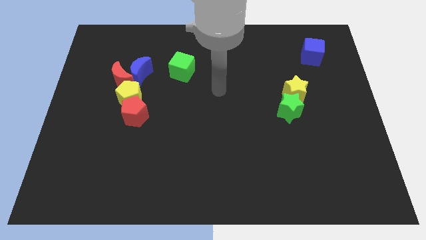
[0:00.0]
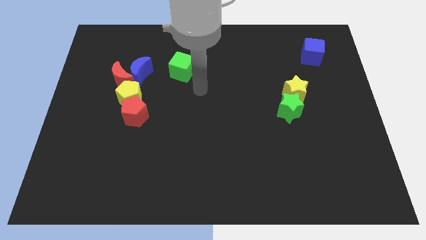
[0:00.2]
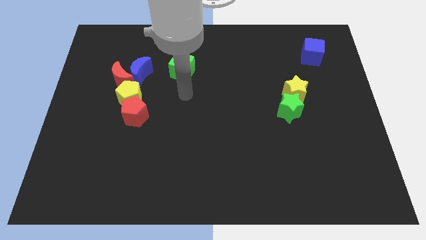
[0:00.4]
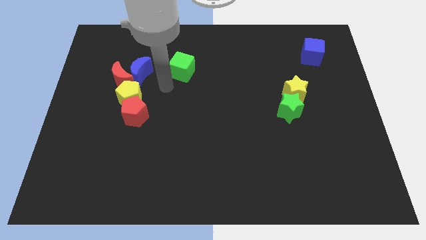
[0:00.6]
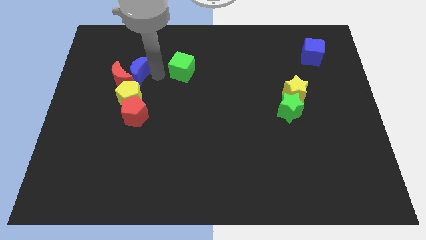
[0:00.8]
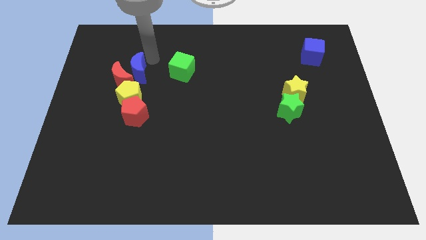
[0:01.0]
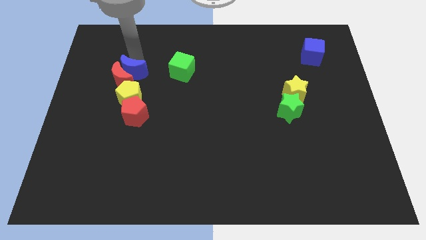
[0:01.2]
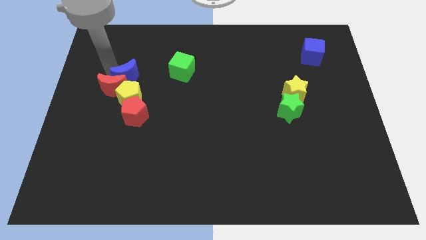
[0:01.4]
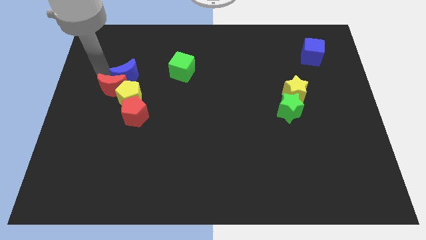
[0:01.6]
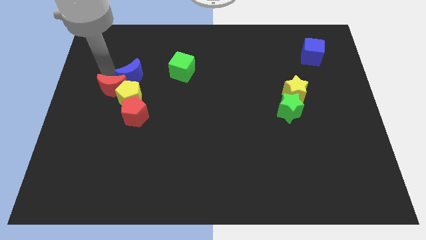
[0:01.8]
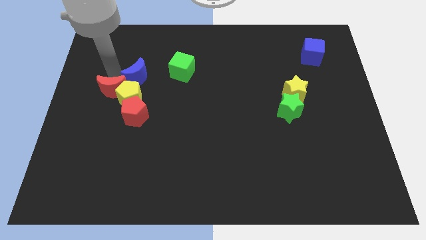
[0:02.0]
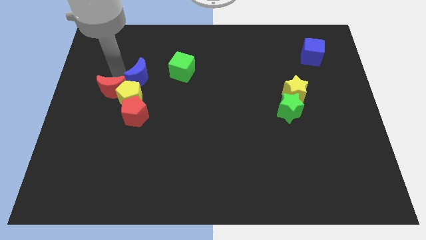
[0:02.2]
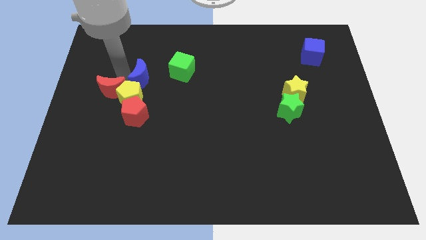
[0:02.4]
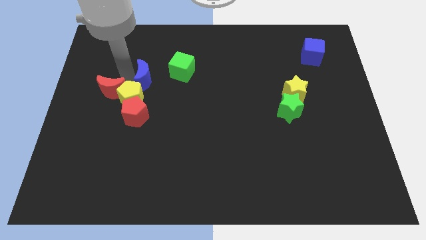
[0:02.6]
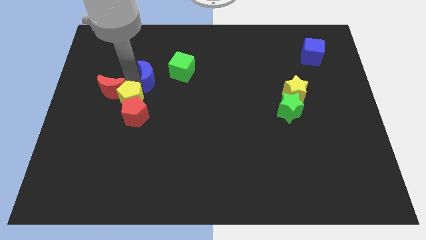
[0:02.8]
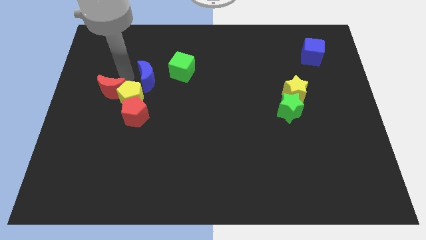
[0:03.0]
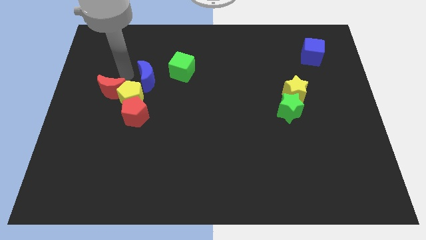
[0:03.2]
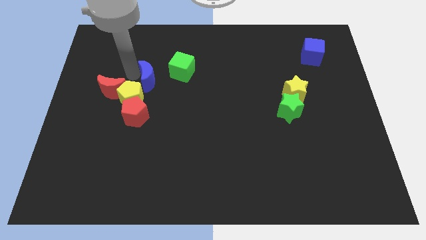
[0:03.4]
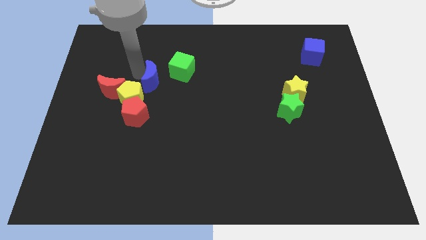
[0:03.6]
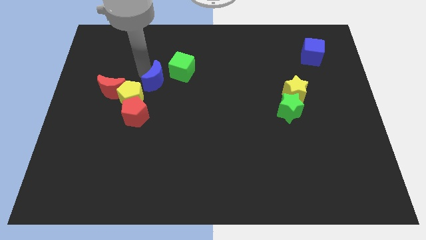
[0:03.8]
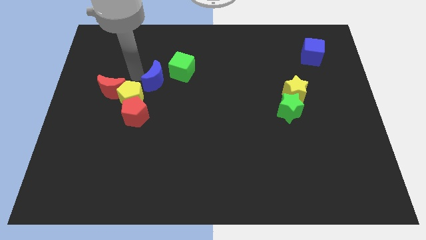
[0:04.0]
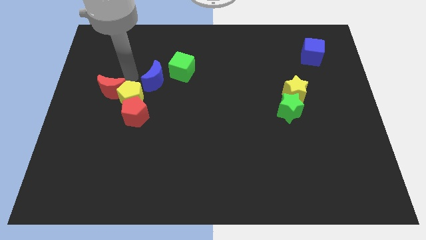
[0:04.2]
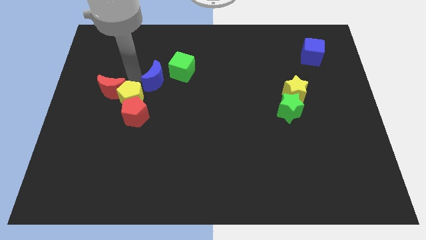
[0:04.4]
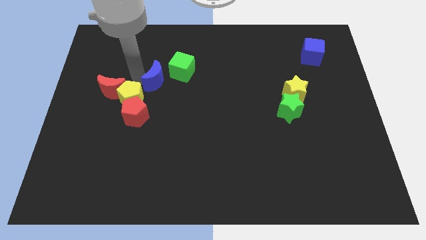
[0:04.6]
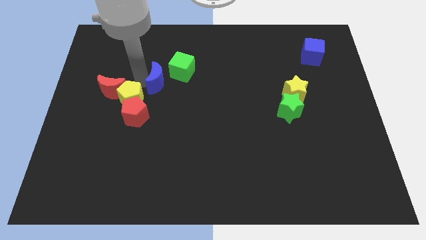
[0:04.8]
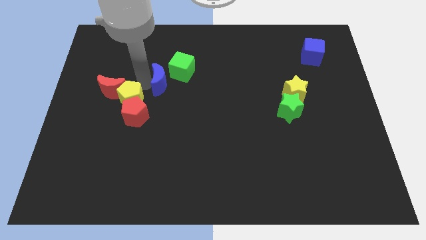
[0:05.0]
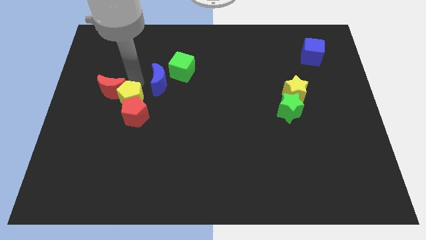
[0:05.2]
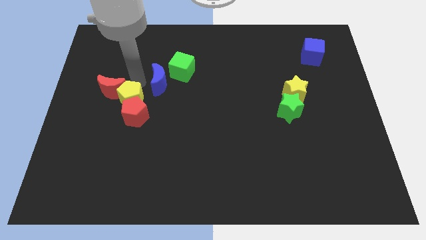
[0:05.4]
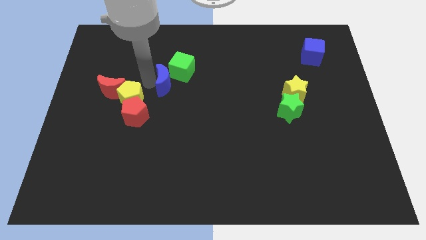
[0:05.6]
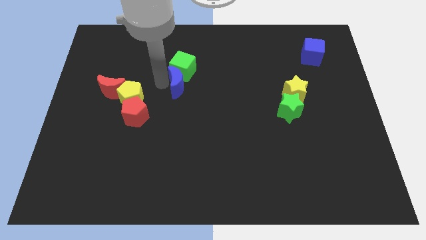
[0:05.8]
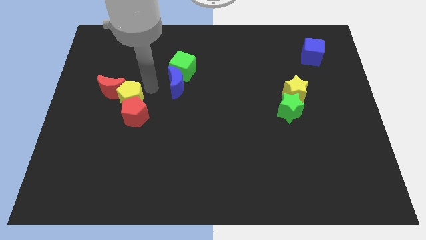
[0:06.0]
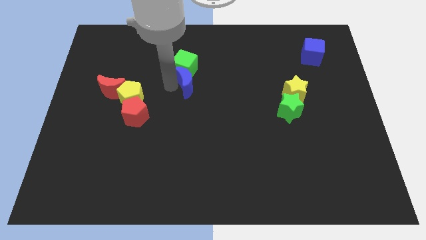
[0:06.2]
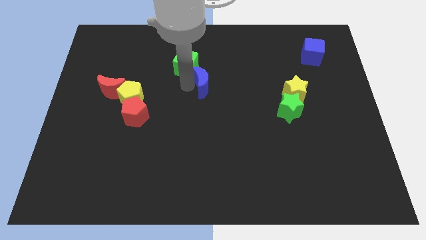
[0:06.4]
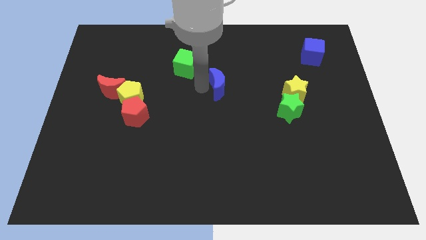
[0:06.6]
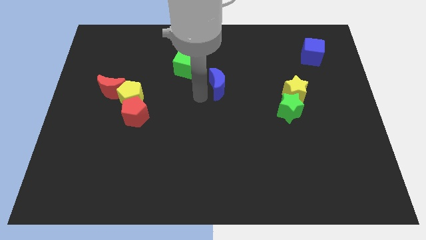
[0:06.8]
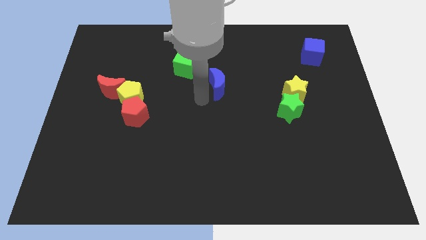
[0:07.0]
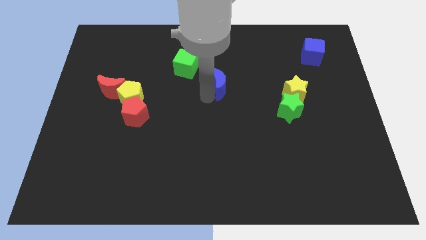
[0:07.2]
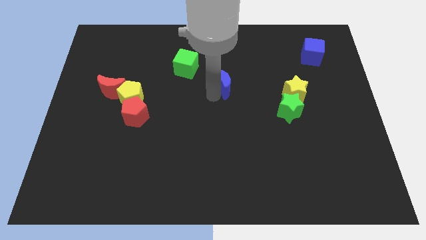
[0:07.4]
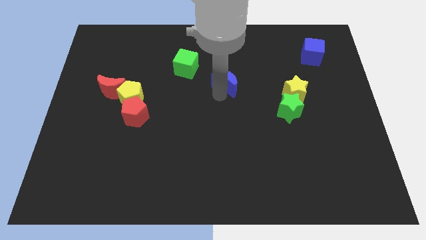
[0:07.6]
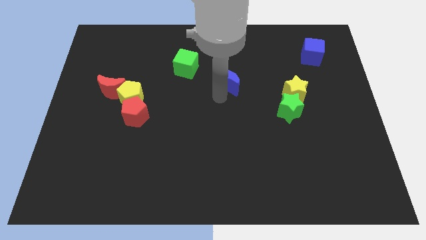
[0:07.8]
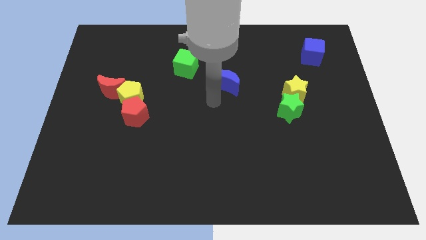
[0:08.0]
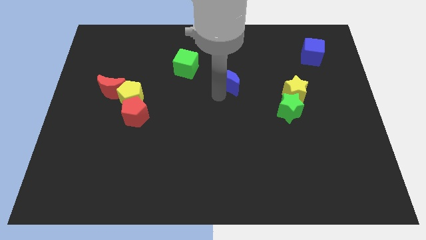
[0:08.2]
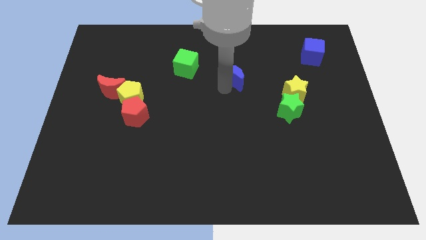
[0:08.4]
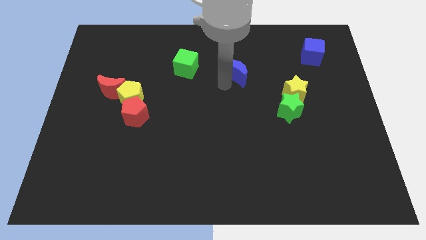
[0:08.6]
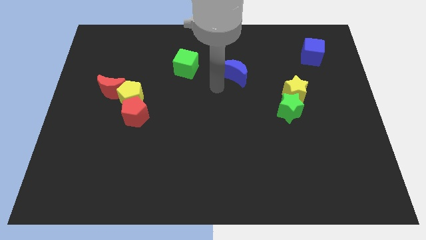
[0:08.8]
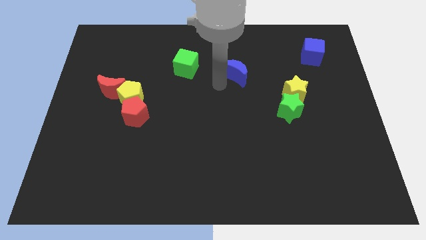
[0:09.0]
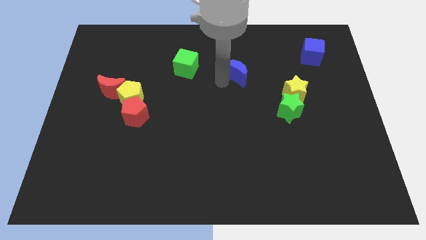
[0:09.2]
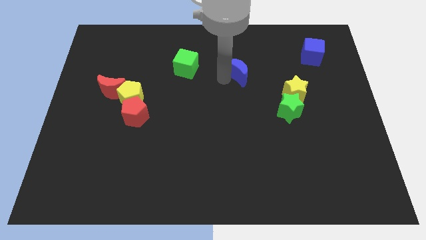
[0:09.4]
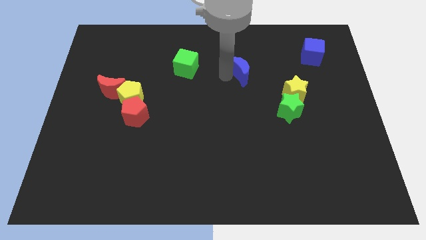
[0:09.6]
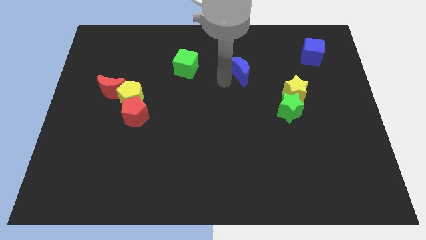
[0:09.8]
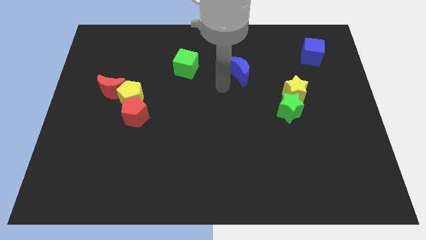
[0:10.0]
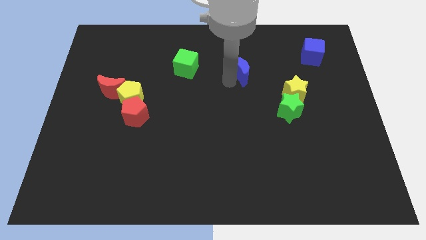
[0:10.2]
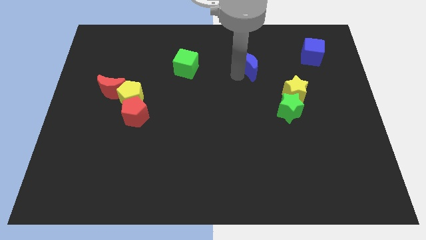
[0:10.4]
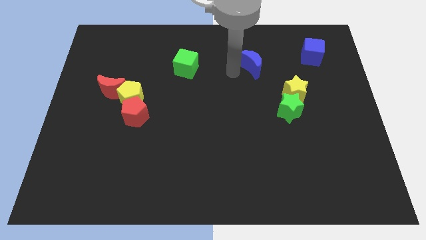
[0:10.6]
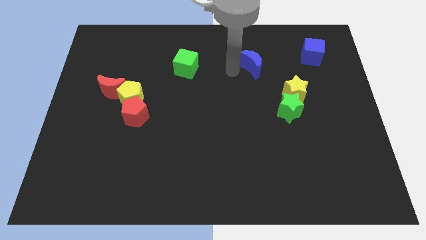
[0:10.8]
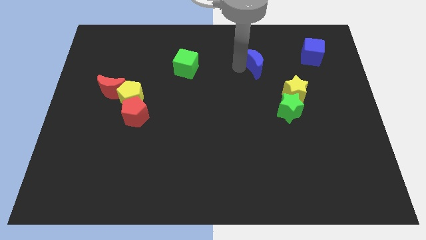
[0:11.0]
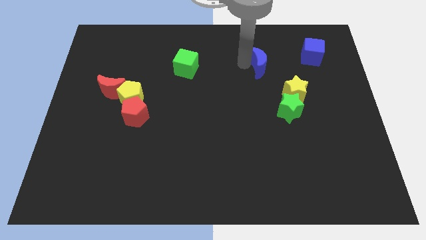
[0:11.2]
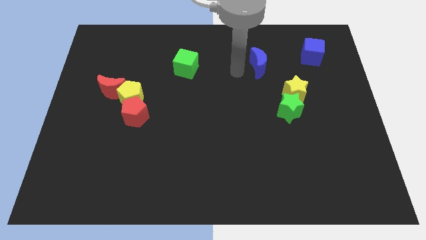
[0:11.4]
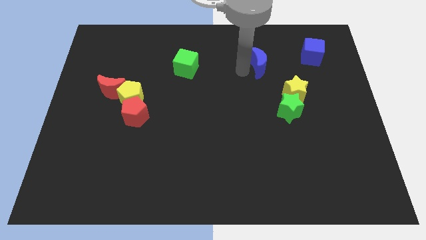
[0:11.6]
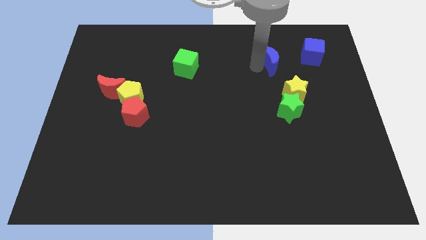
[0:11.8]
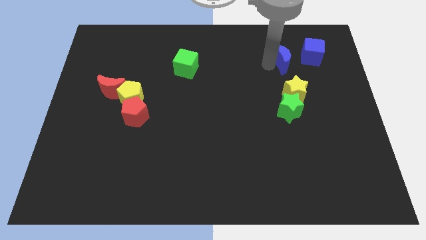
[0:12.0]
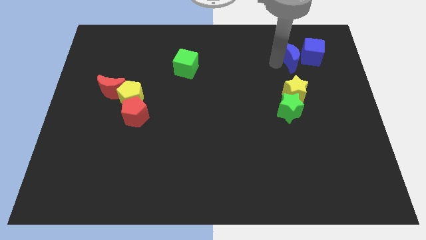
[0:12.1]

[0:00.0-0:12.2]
slide the blue moon next to the blue cube

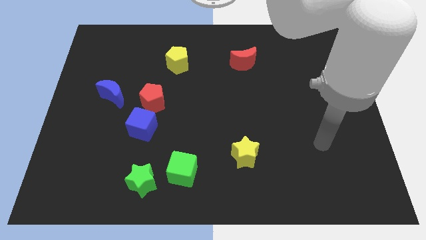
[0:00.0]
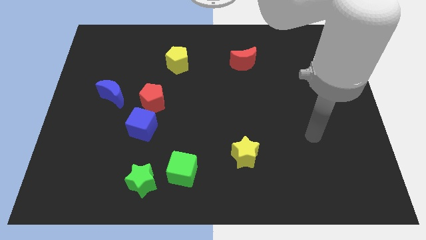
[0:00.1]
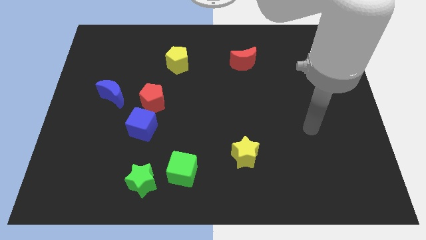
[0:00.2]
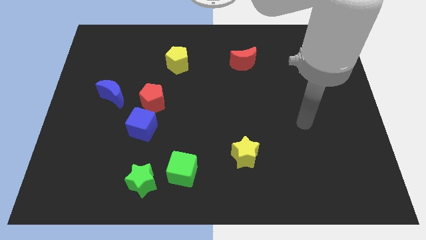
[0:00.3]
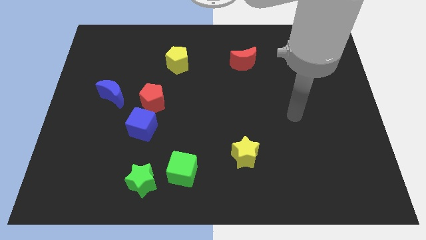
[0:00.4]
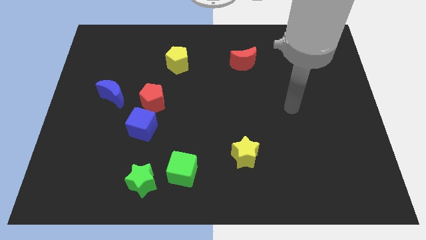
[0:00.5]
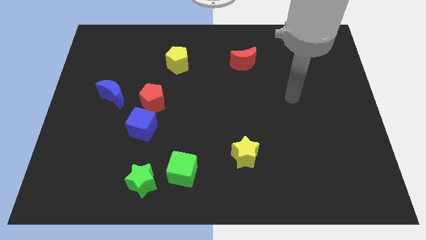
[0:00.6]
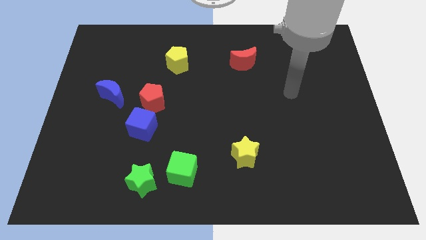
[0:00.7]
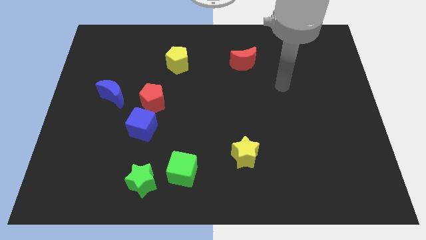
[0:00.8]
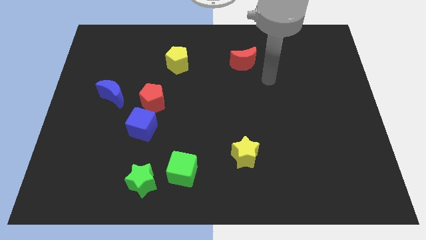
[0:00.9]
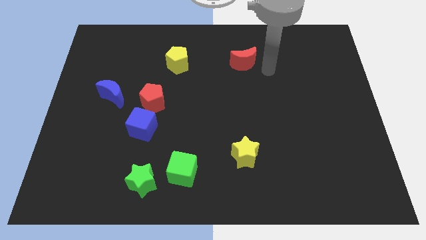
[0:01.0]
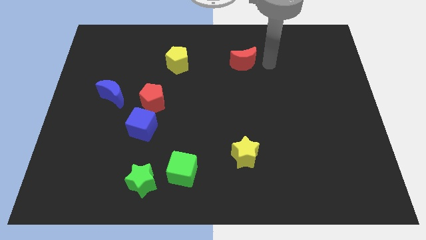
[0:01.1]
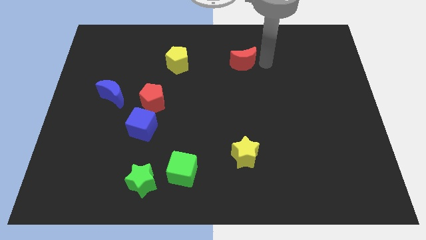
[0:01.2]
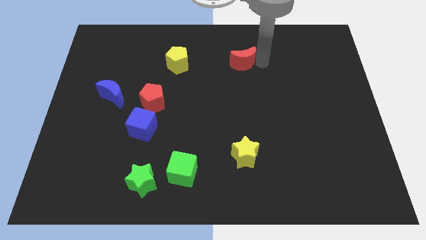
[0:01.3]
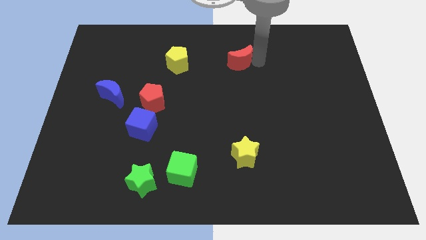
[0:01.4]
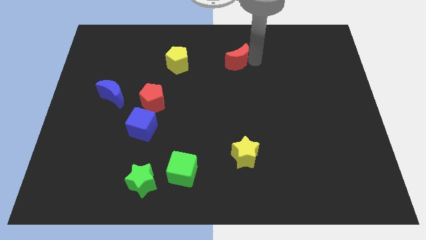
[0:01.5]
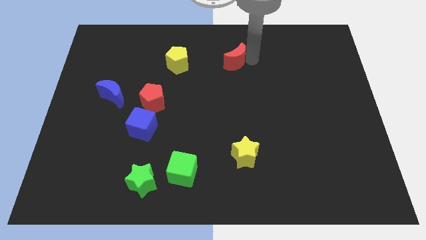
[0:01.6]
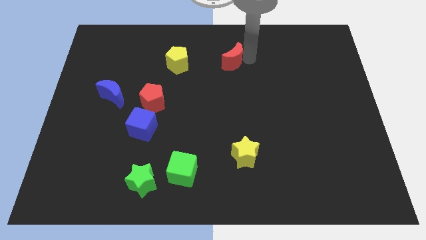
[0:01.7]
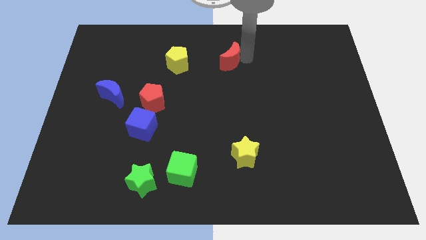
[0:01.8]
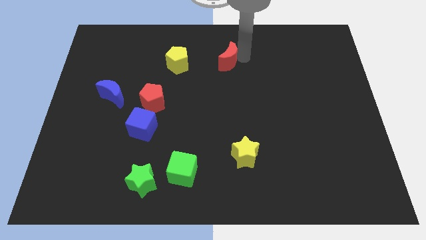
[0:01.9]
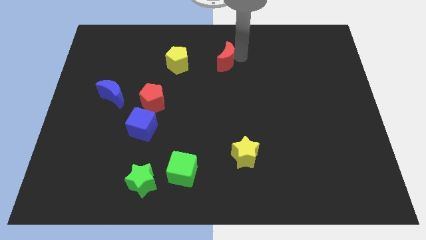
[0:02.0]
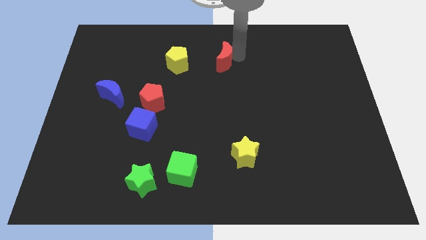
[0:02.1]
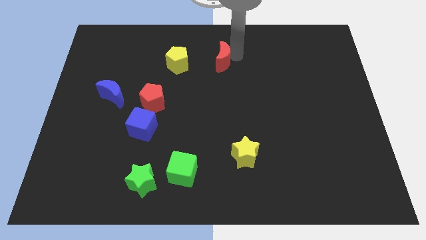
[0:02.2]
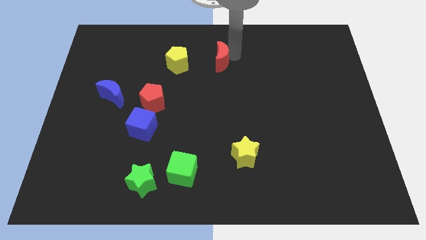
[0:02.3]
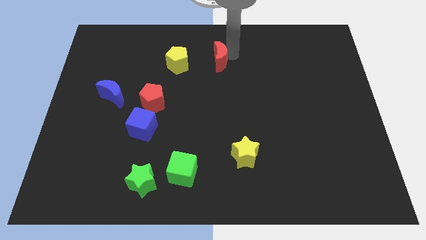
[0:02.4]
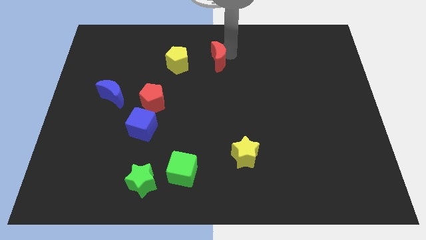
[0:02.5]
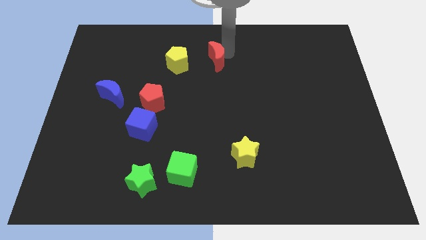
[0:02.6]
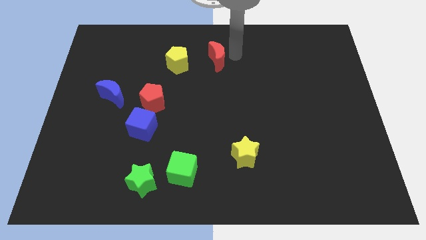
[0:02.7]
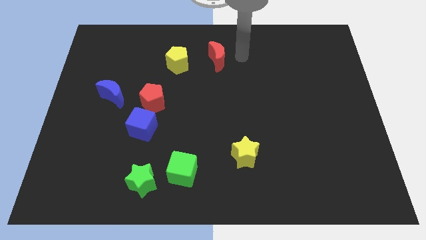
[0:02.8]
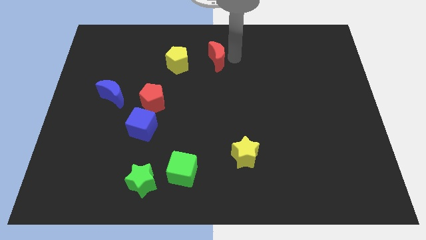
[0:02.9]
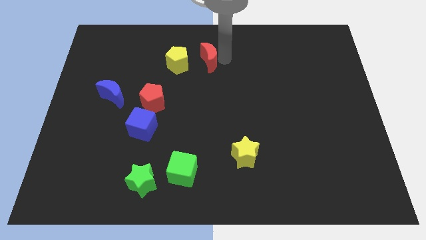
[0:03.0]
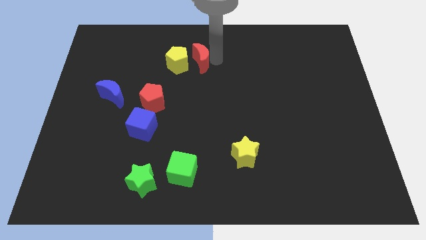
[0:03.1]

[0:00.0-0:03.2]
put the red moon close to the yellow pentagon
